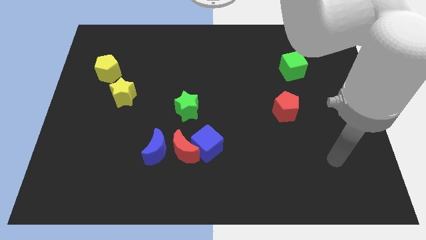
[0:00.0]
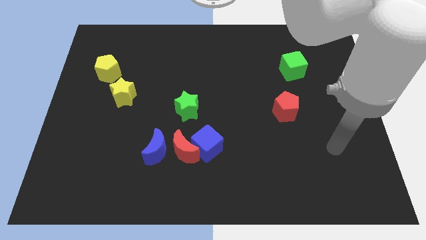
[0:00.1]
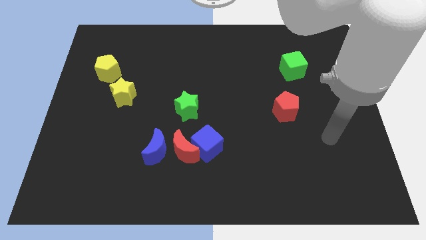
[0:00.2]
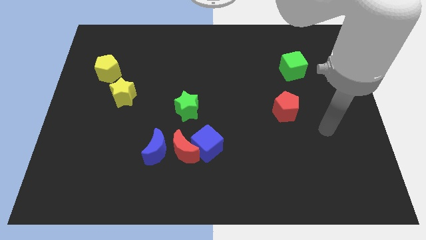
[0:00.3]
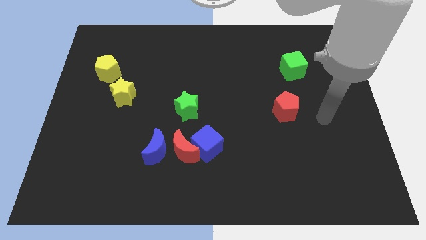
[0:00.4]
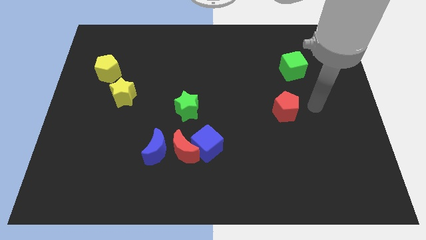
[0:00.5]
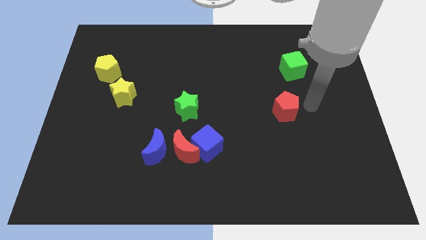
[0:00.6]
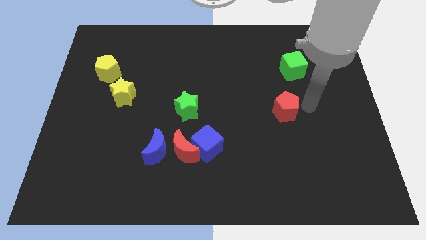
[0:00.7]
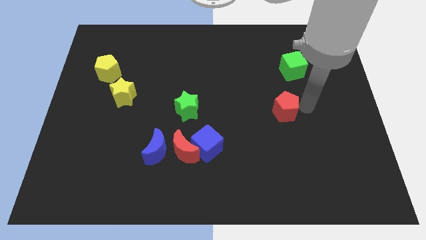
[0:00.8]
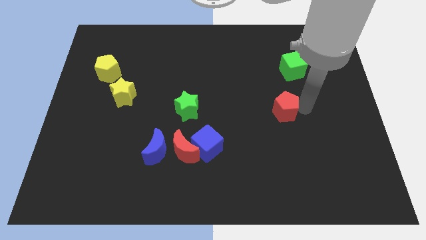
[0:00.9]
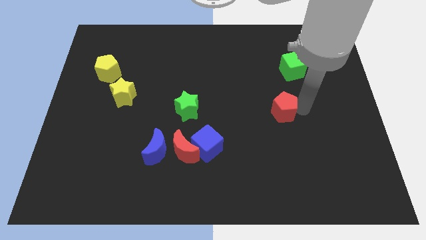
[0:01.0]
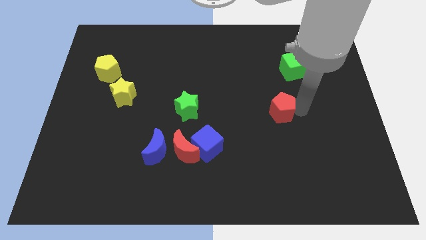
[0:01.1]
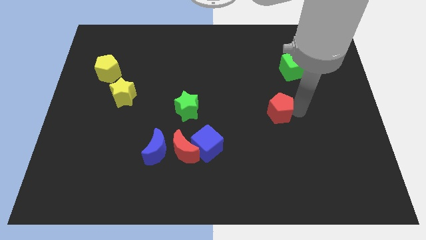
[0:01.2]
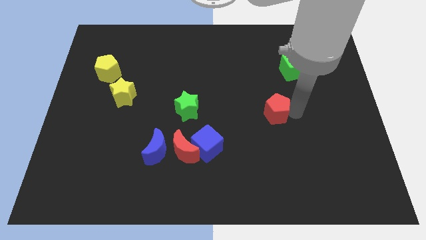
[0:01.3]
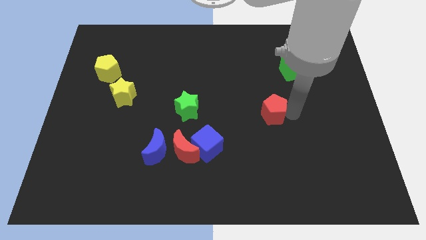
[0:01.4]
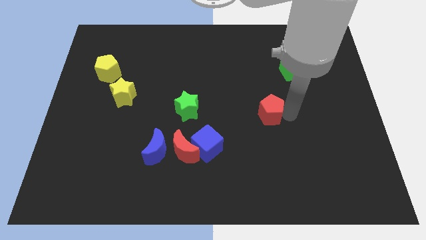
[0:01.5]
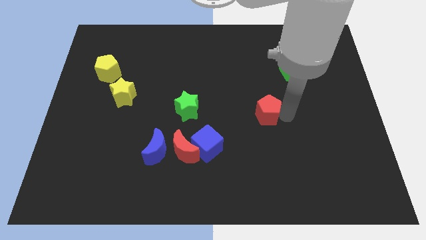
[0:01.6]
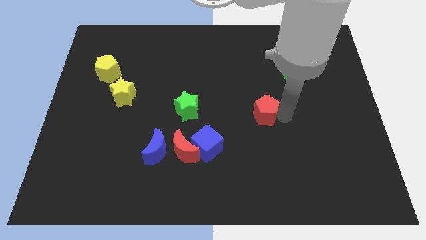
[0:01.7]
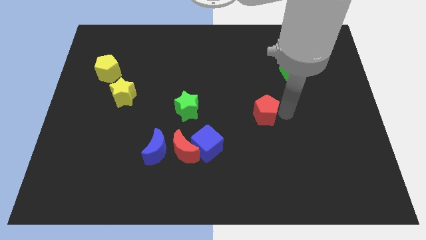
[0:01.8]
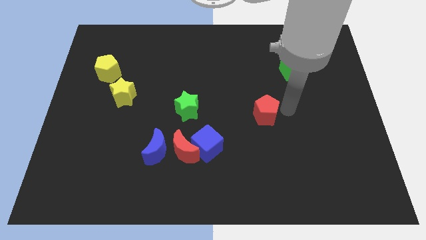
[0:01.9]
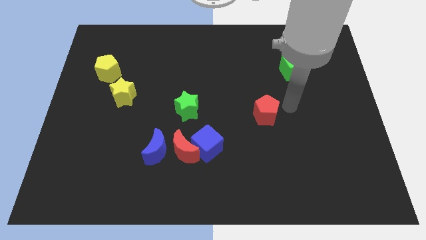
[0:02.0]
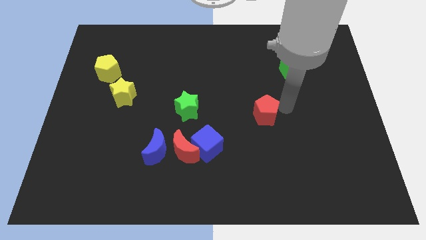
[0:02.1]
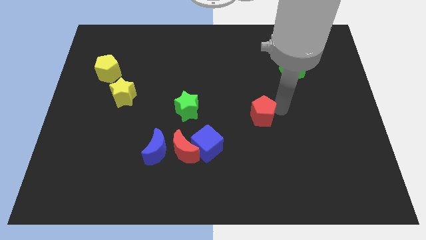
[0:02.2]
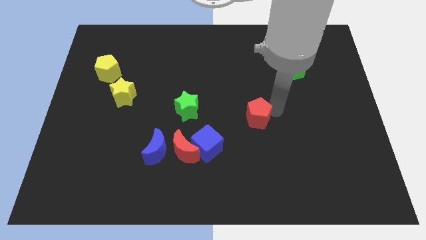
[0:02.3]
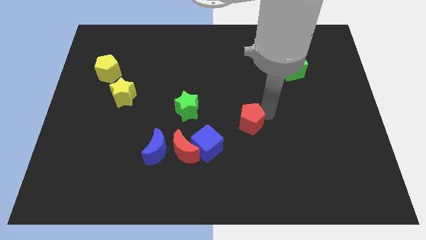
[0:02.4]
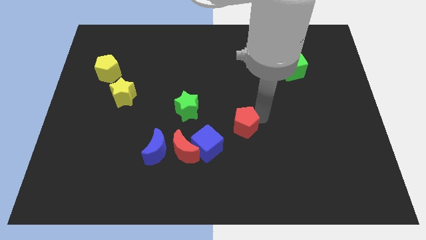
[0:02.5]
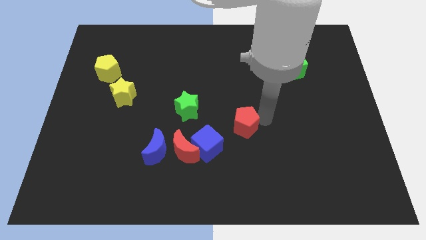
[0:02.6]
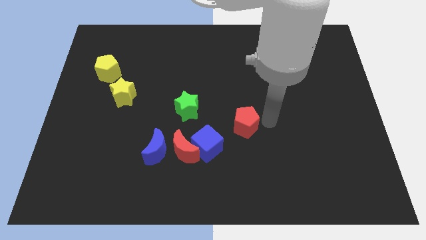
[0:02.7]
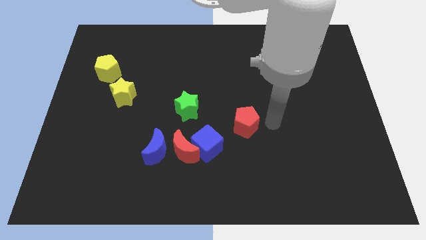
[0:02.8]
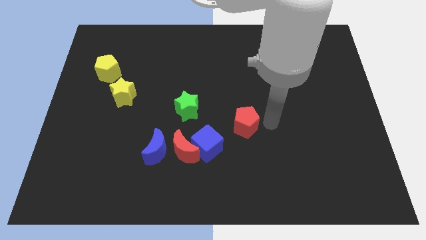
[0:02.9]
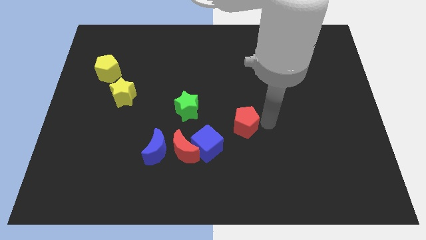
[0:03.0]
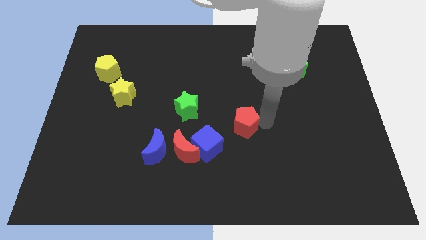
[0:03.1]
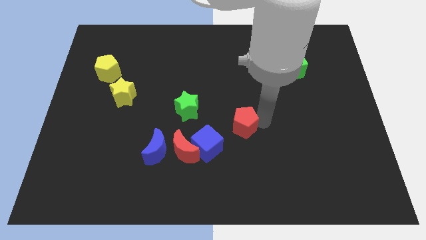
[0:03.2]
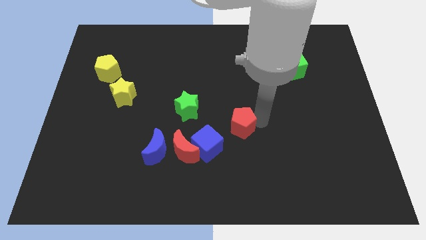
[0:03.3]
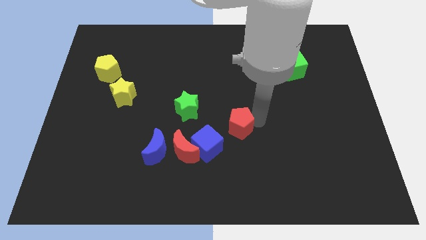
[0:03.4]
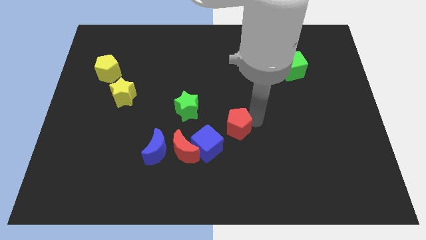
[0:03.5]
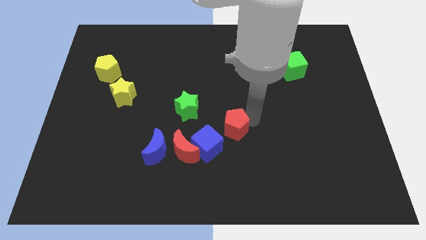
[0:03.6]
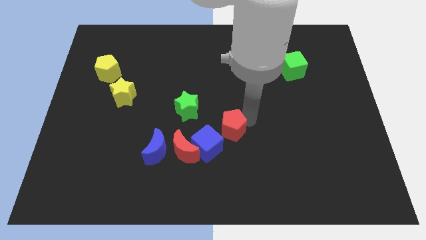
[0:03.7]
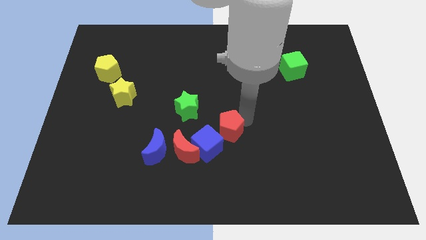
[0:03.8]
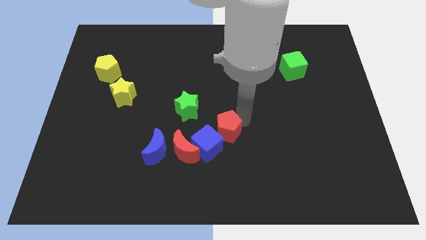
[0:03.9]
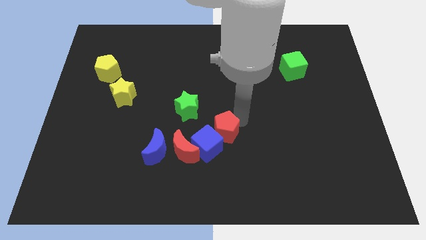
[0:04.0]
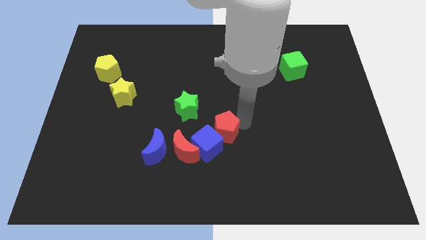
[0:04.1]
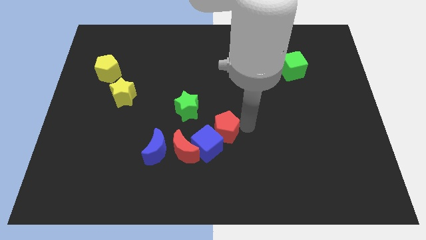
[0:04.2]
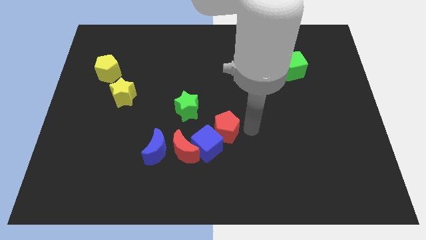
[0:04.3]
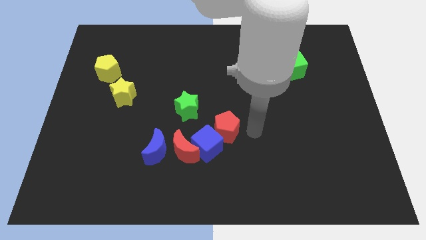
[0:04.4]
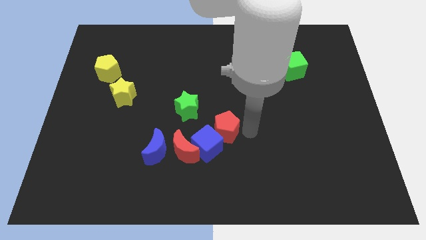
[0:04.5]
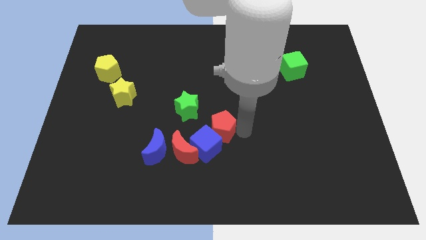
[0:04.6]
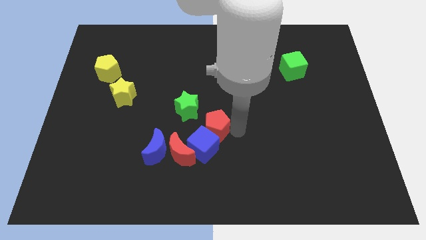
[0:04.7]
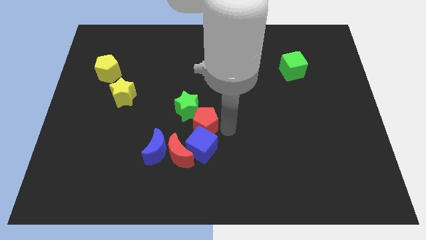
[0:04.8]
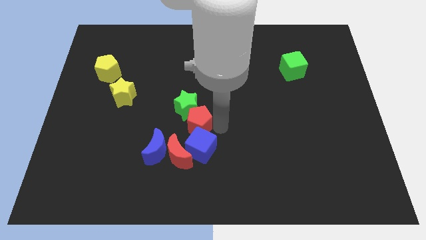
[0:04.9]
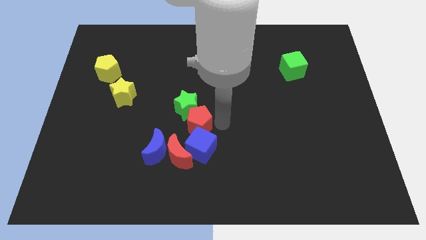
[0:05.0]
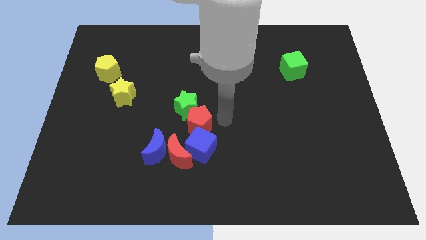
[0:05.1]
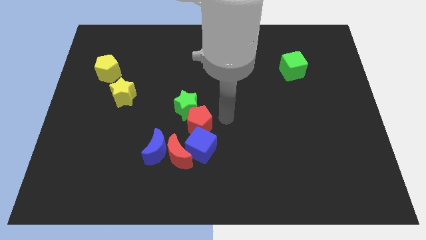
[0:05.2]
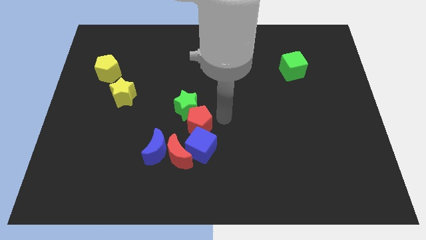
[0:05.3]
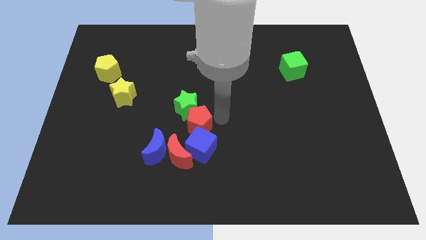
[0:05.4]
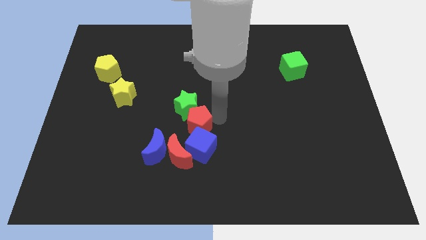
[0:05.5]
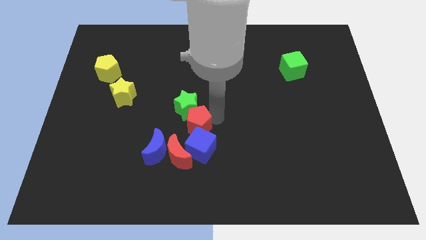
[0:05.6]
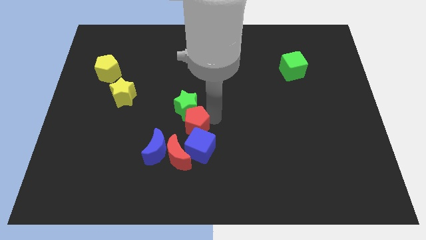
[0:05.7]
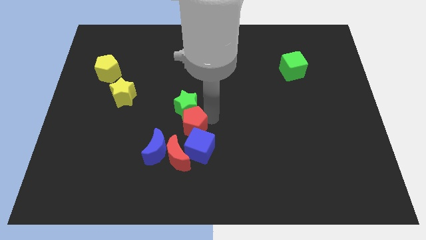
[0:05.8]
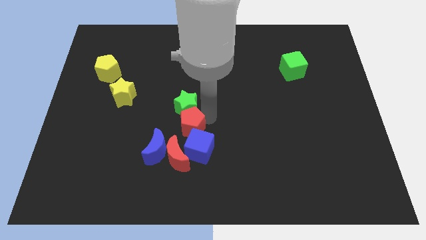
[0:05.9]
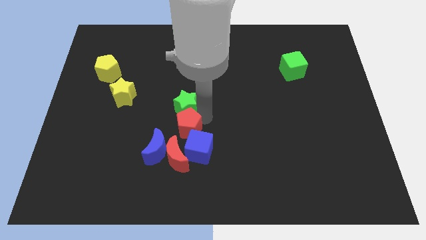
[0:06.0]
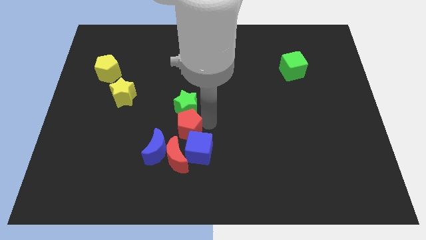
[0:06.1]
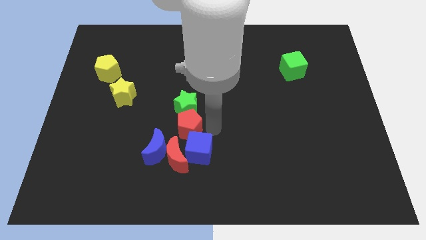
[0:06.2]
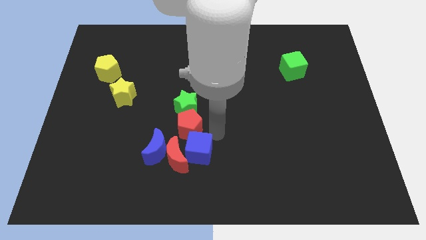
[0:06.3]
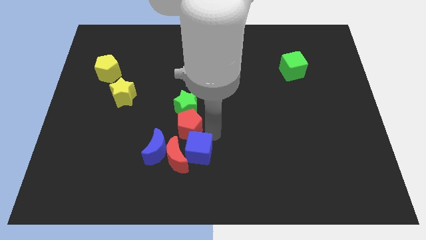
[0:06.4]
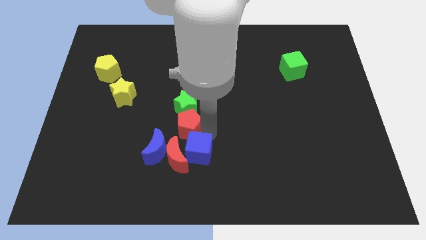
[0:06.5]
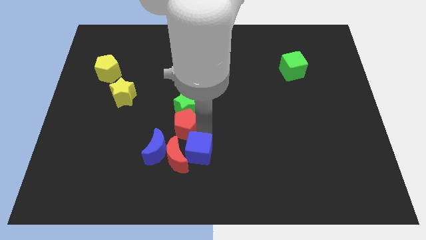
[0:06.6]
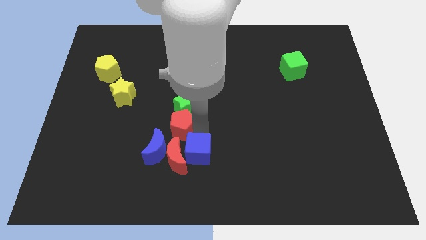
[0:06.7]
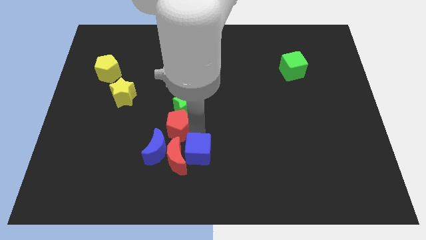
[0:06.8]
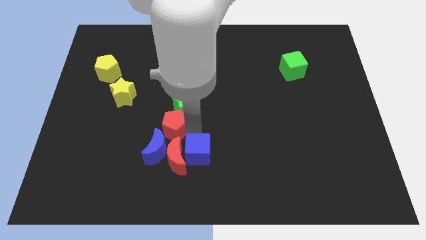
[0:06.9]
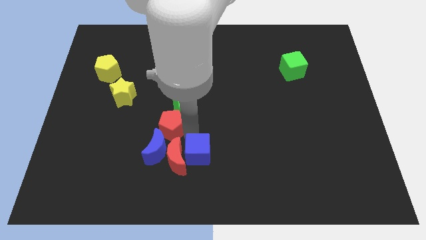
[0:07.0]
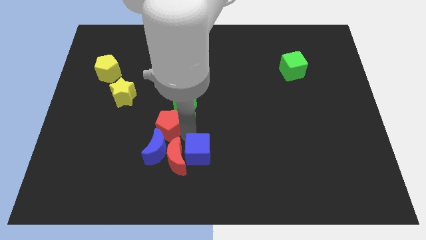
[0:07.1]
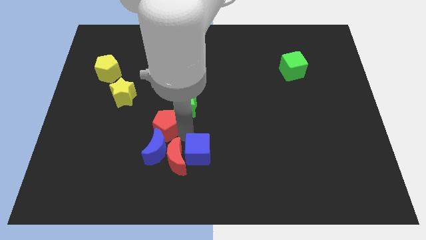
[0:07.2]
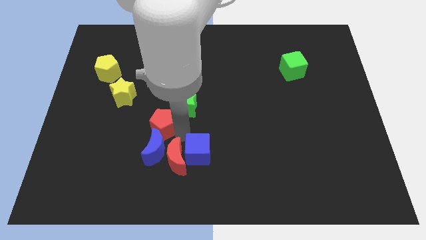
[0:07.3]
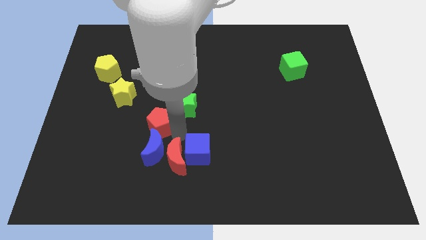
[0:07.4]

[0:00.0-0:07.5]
put the red pentagon to the bottom right side of the yellow star
